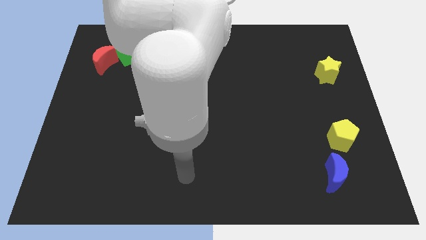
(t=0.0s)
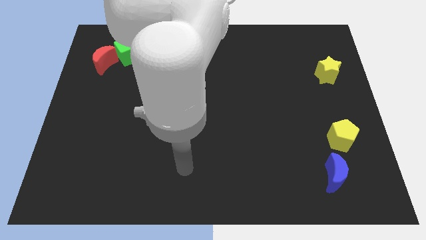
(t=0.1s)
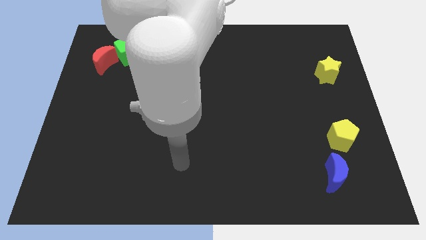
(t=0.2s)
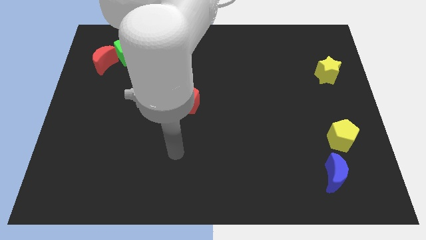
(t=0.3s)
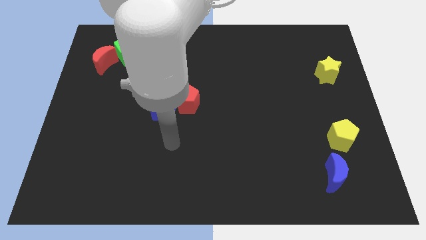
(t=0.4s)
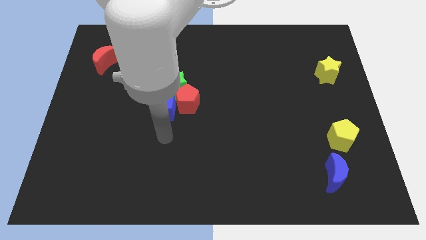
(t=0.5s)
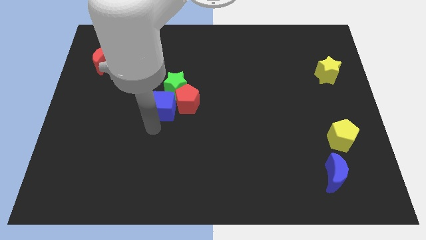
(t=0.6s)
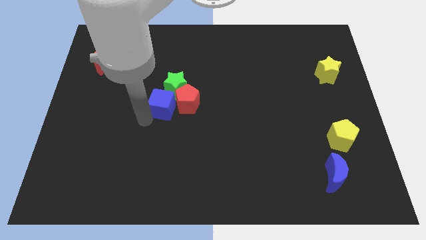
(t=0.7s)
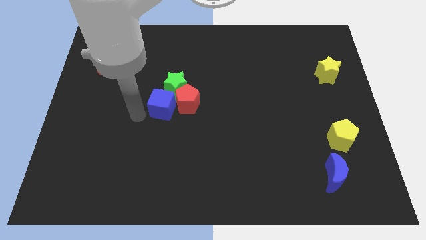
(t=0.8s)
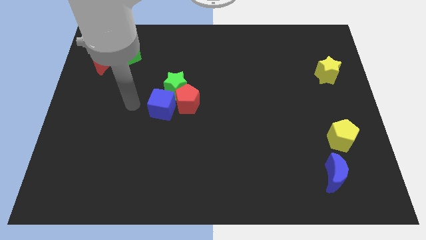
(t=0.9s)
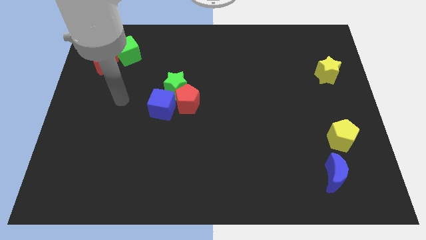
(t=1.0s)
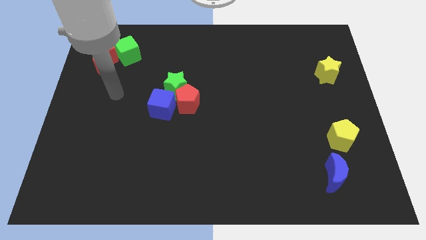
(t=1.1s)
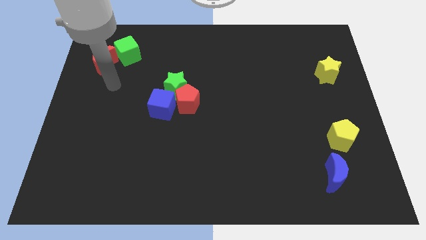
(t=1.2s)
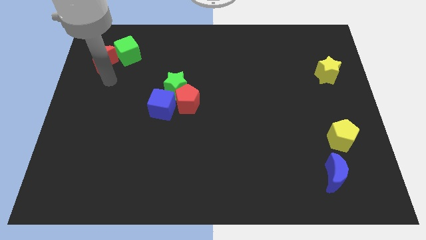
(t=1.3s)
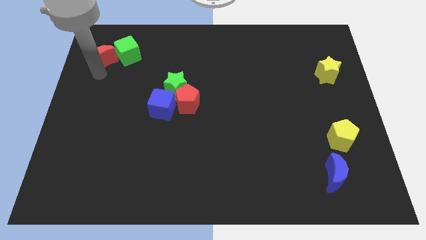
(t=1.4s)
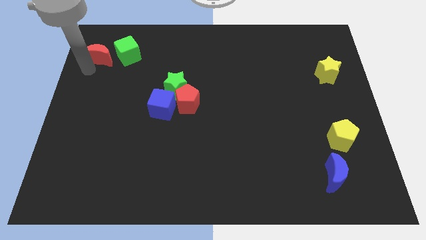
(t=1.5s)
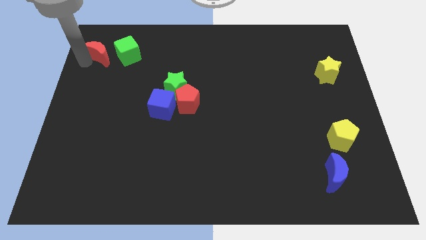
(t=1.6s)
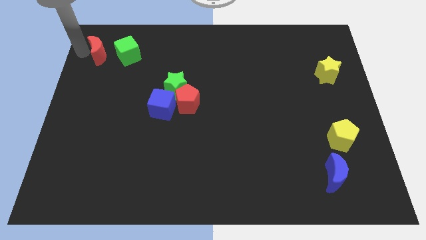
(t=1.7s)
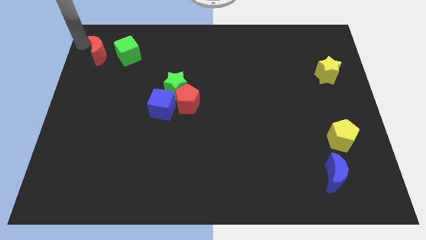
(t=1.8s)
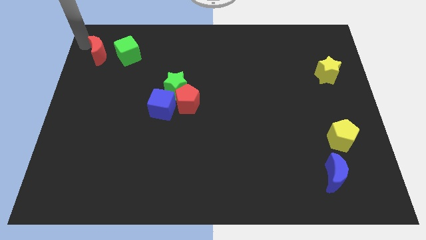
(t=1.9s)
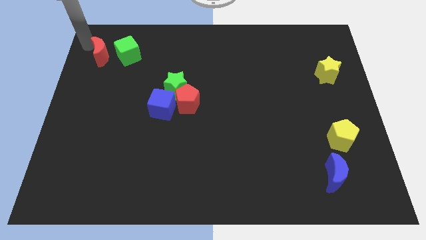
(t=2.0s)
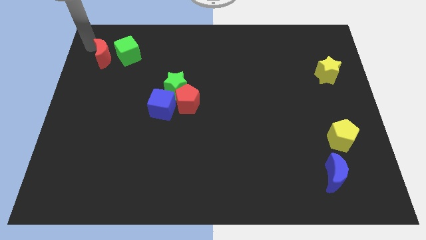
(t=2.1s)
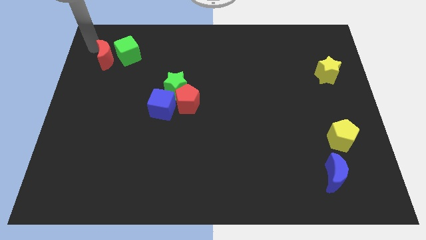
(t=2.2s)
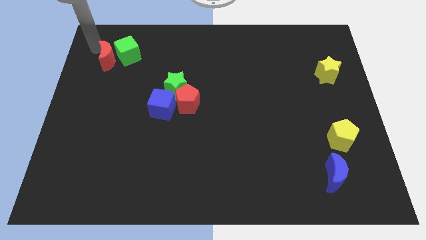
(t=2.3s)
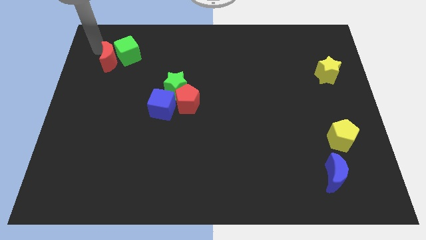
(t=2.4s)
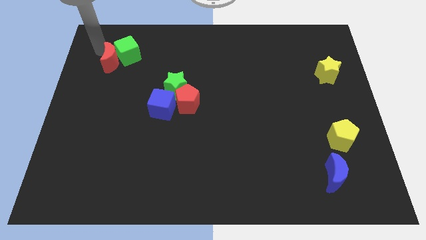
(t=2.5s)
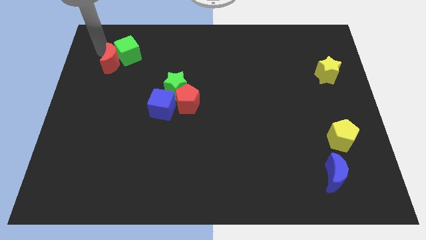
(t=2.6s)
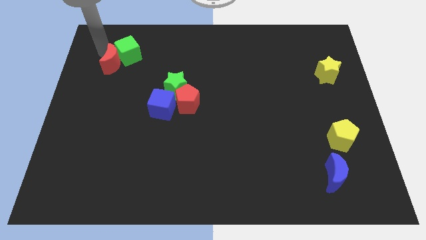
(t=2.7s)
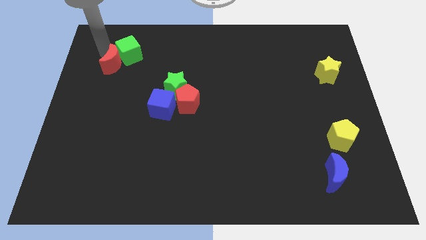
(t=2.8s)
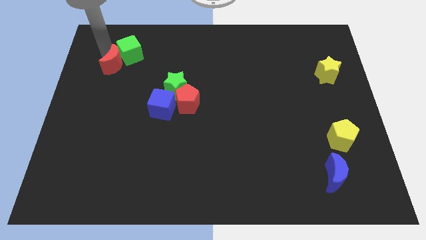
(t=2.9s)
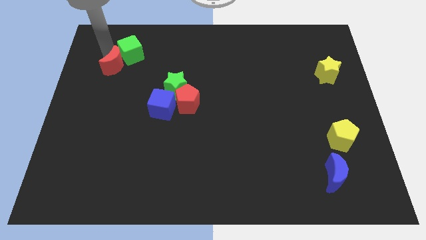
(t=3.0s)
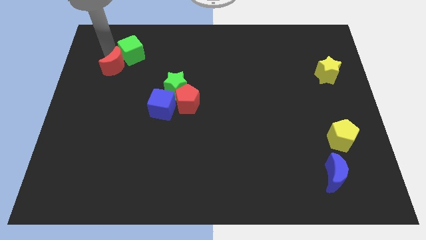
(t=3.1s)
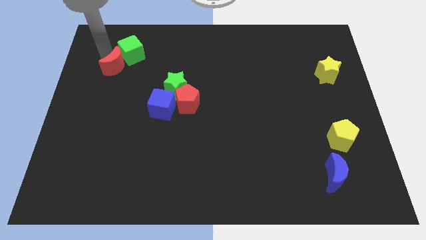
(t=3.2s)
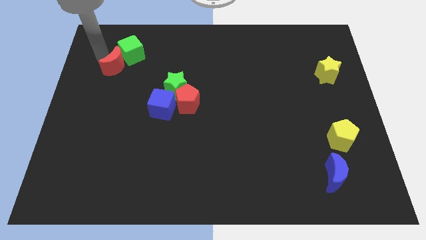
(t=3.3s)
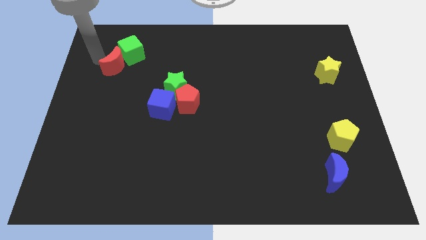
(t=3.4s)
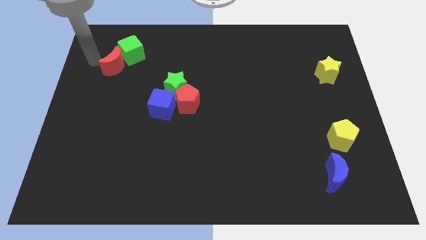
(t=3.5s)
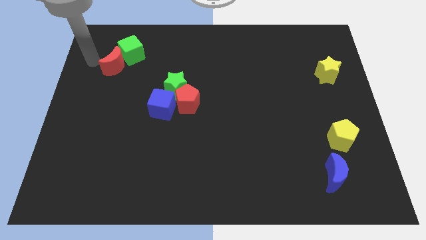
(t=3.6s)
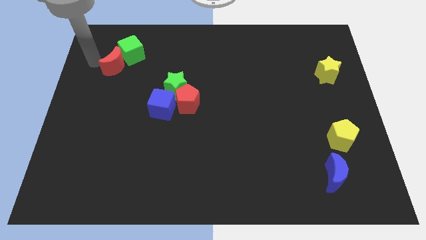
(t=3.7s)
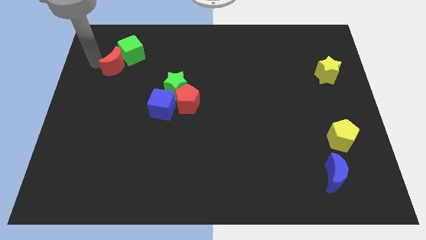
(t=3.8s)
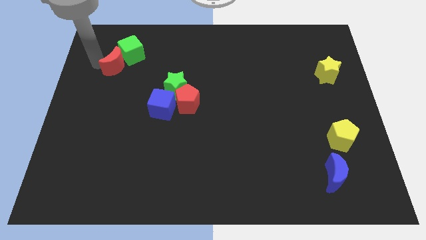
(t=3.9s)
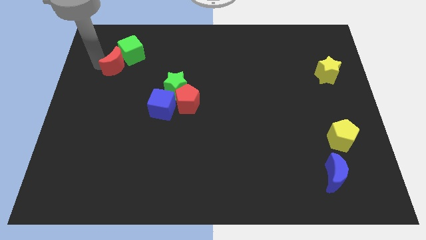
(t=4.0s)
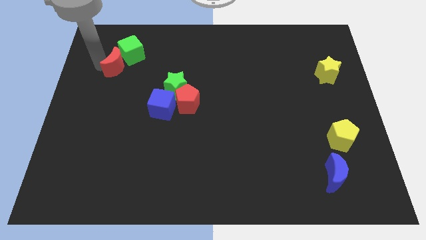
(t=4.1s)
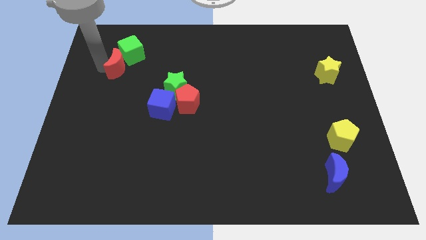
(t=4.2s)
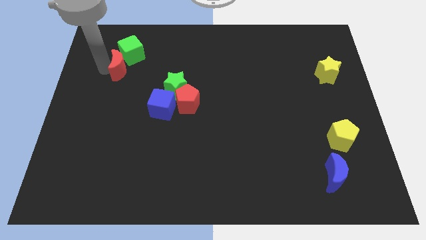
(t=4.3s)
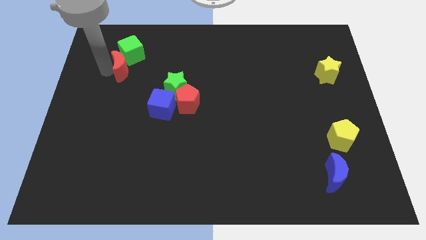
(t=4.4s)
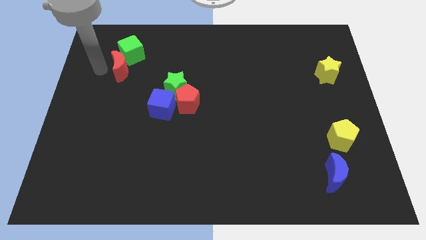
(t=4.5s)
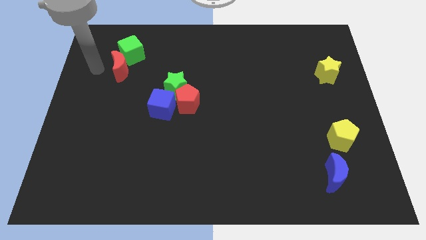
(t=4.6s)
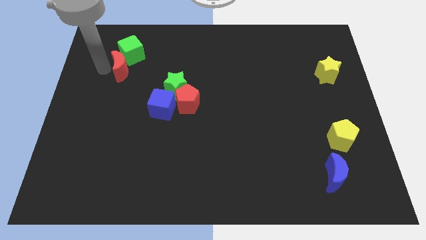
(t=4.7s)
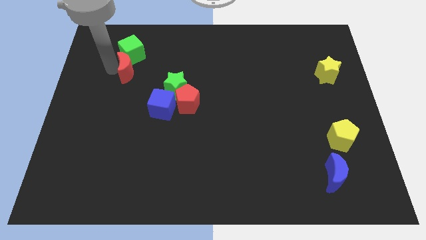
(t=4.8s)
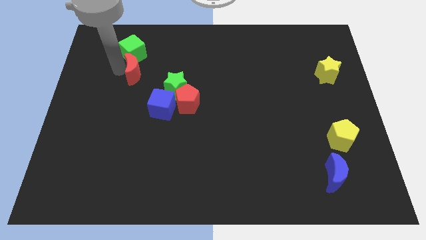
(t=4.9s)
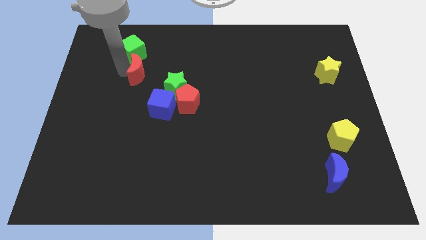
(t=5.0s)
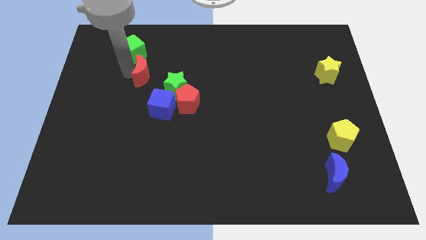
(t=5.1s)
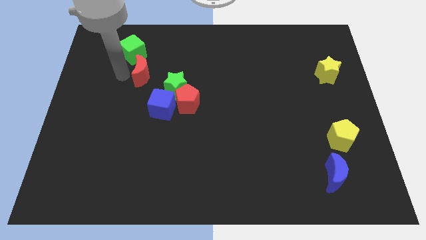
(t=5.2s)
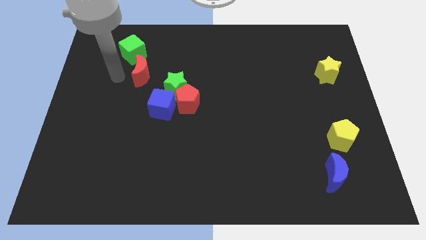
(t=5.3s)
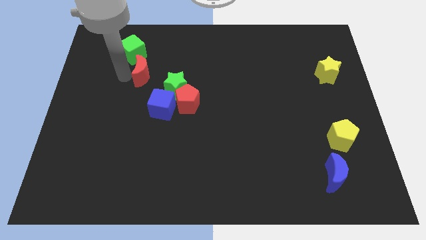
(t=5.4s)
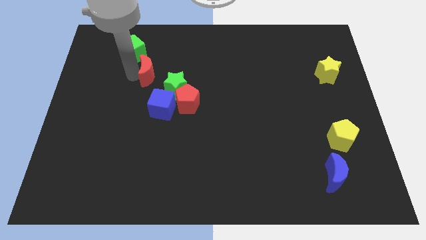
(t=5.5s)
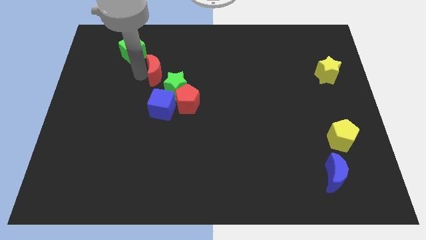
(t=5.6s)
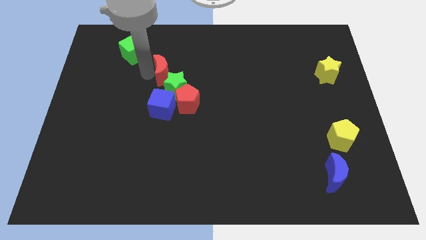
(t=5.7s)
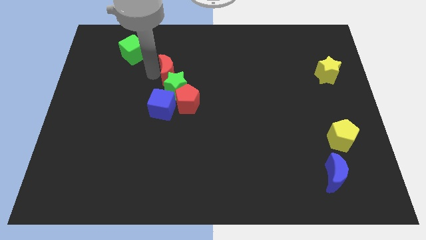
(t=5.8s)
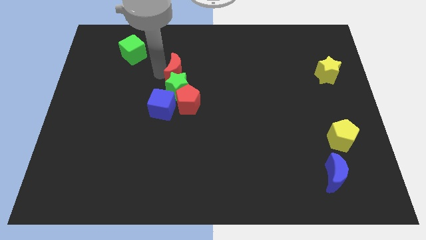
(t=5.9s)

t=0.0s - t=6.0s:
put the red moon above the red pentagon

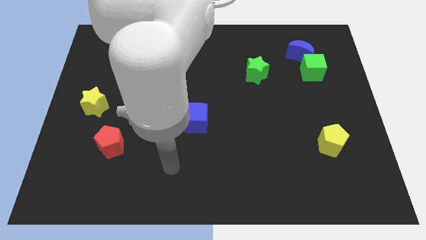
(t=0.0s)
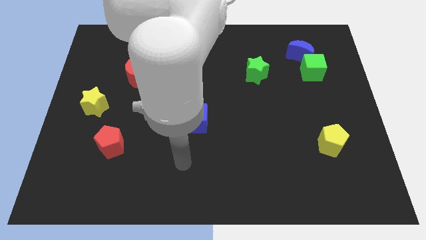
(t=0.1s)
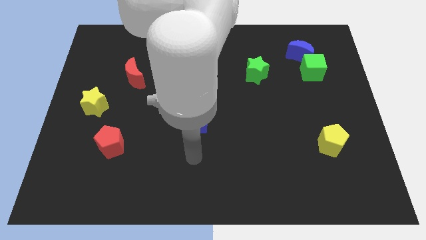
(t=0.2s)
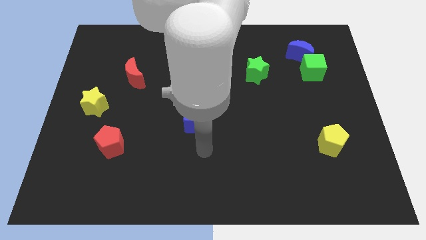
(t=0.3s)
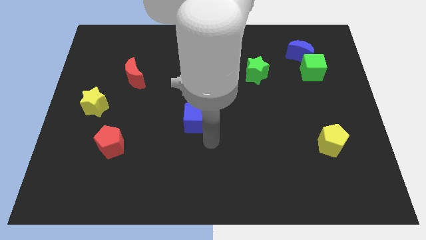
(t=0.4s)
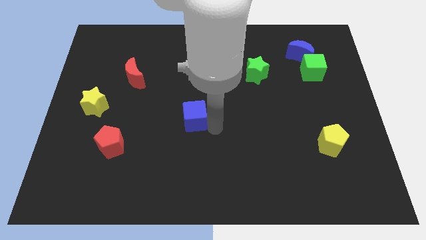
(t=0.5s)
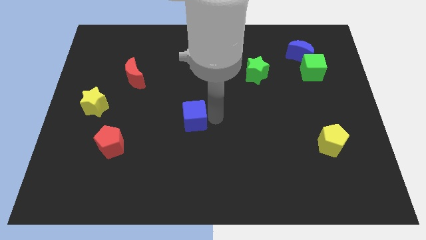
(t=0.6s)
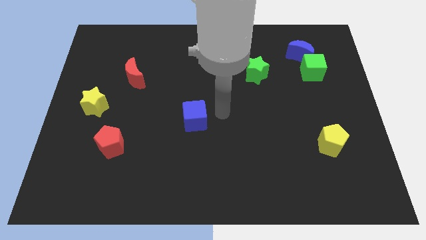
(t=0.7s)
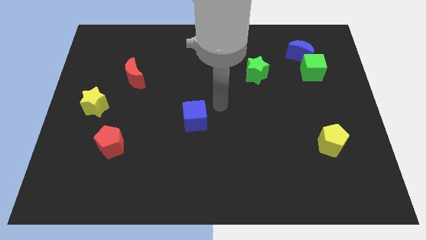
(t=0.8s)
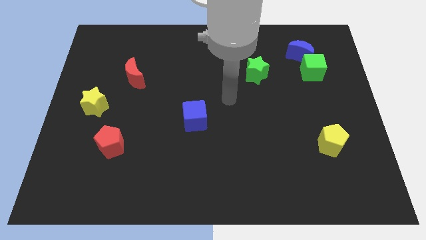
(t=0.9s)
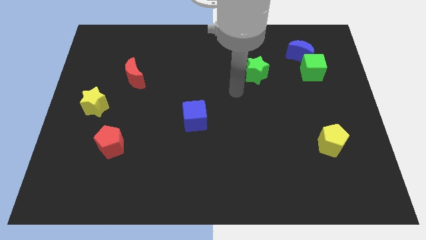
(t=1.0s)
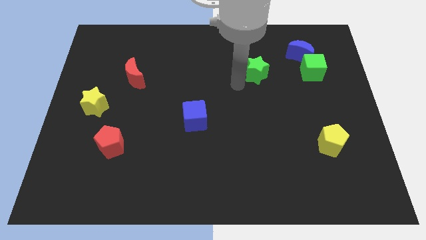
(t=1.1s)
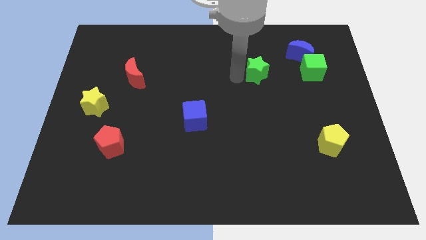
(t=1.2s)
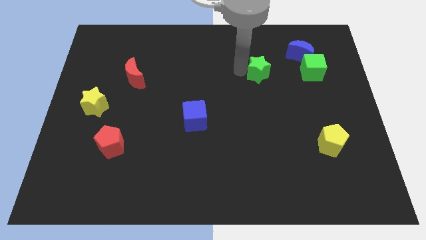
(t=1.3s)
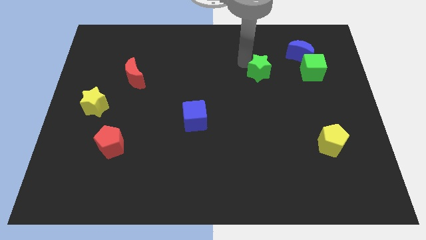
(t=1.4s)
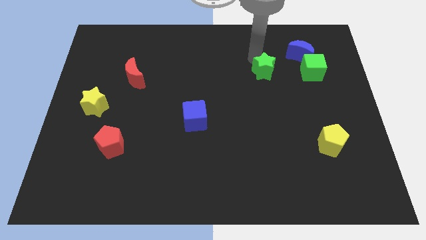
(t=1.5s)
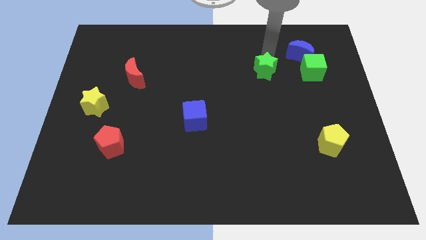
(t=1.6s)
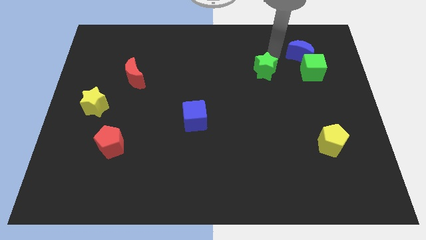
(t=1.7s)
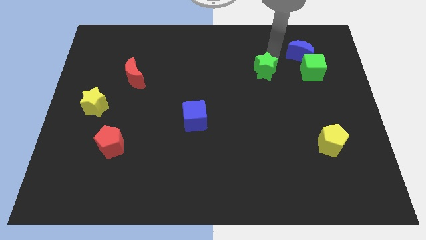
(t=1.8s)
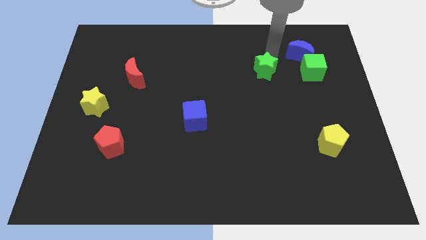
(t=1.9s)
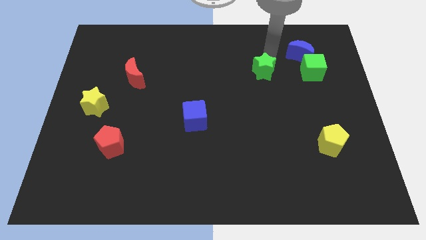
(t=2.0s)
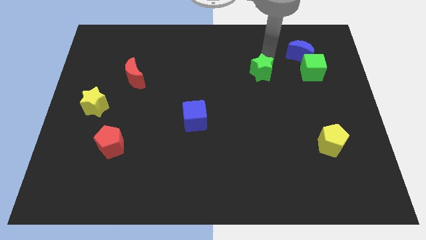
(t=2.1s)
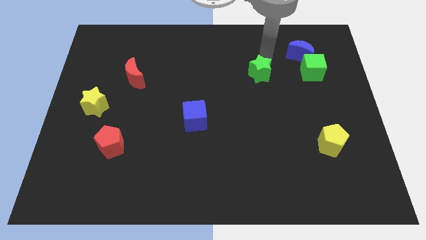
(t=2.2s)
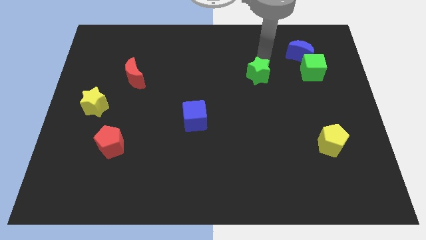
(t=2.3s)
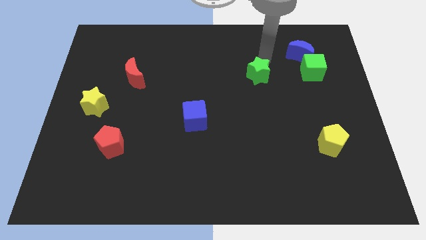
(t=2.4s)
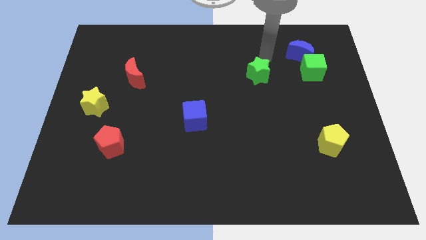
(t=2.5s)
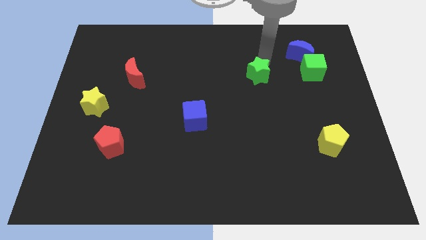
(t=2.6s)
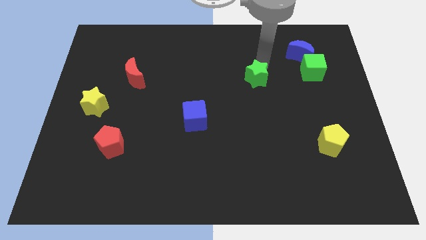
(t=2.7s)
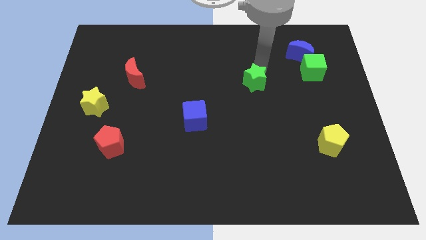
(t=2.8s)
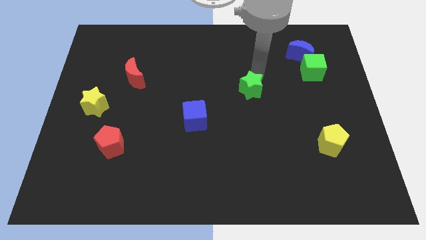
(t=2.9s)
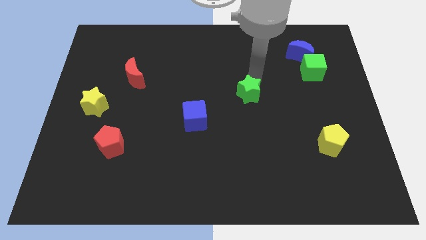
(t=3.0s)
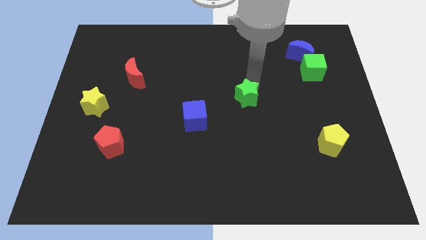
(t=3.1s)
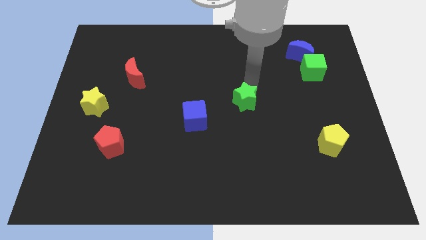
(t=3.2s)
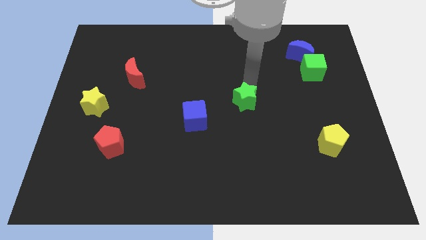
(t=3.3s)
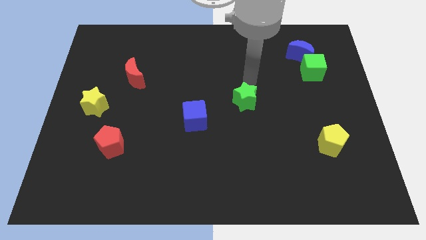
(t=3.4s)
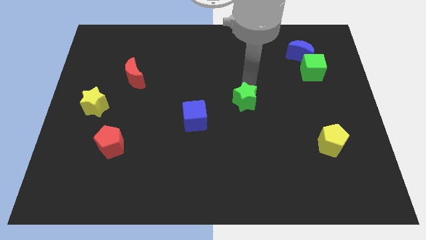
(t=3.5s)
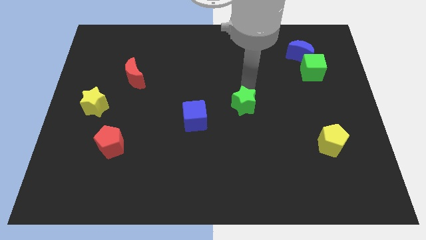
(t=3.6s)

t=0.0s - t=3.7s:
move the green star to the right side of the blue cube
